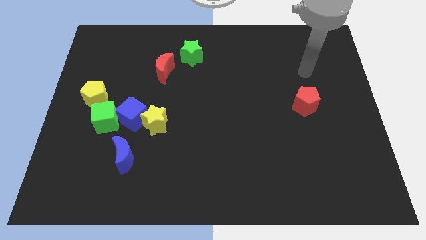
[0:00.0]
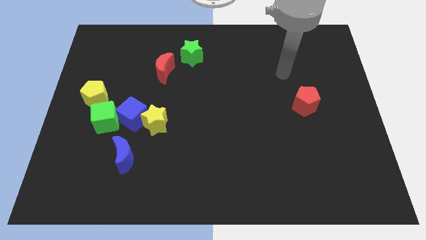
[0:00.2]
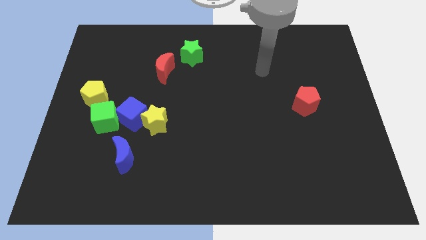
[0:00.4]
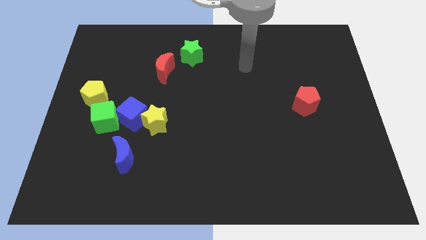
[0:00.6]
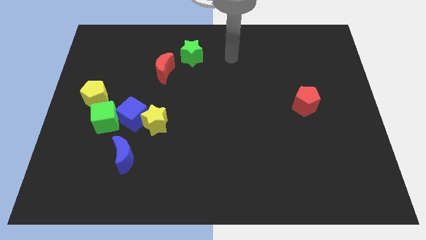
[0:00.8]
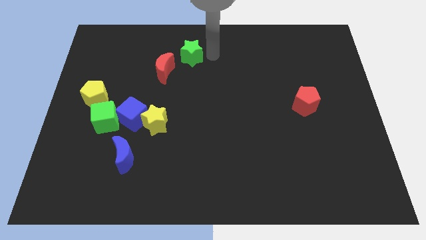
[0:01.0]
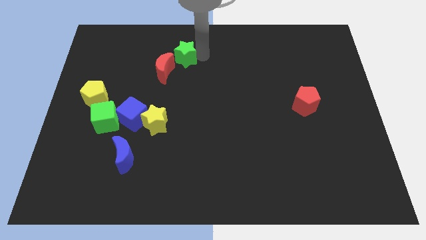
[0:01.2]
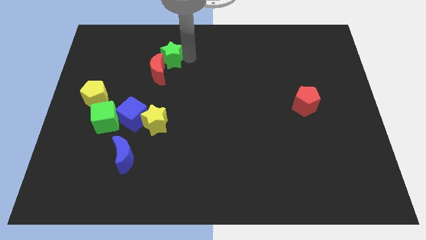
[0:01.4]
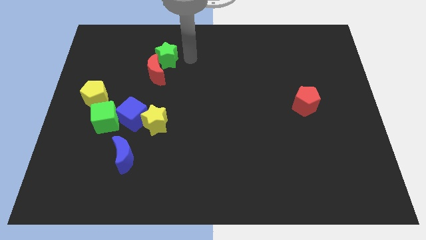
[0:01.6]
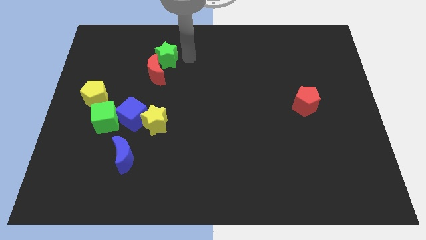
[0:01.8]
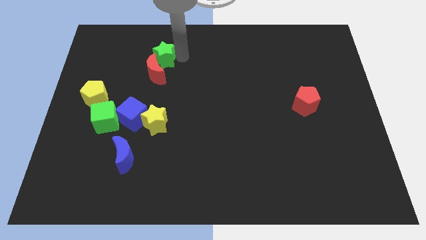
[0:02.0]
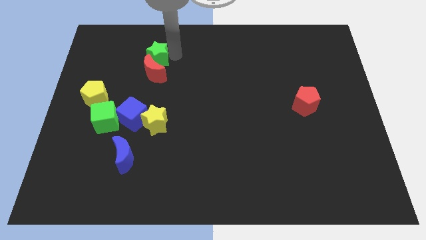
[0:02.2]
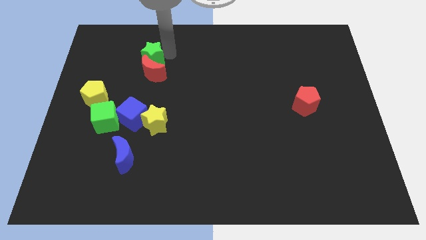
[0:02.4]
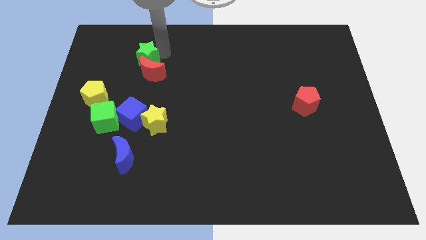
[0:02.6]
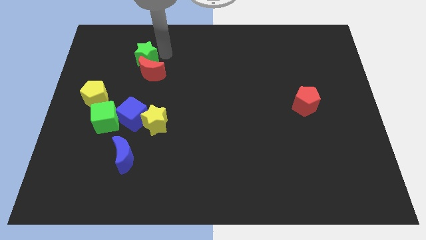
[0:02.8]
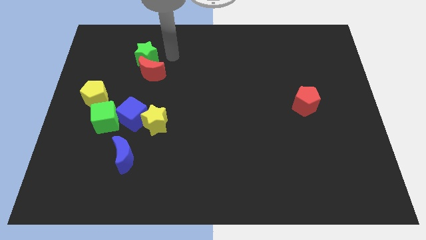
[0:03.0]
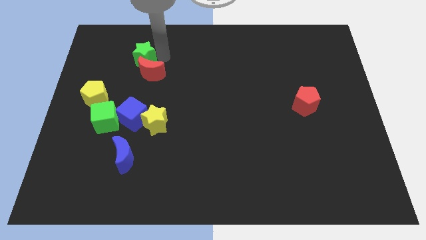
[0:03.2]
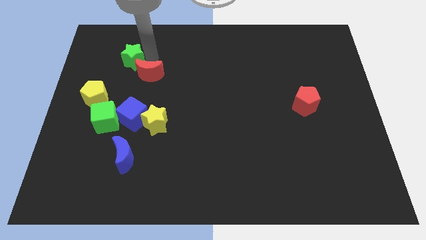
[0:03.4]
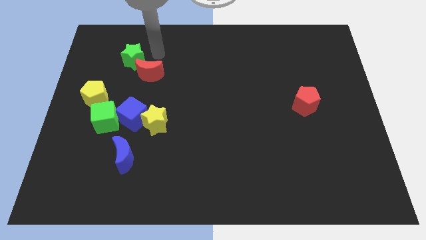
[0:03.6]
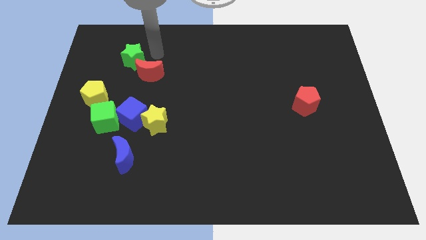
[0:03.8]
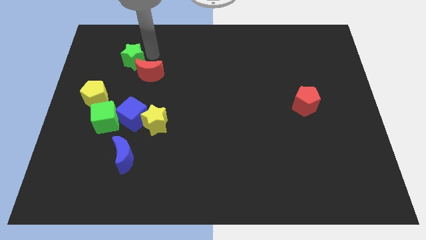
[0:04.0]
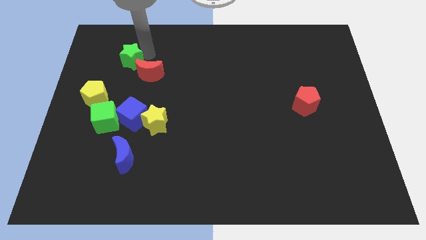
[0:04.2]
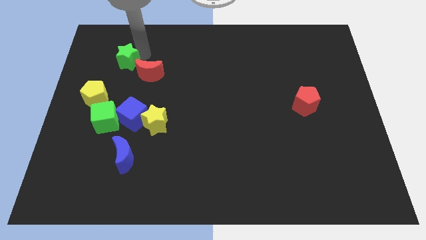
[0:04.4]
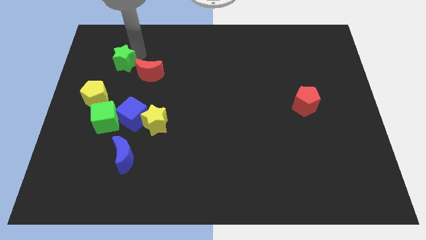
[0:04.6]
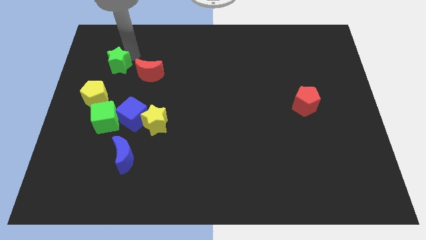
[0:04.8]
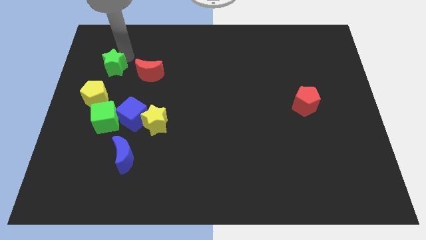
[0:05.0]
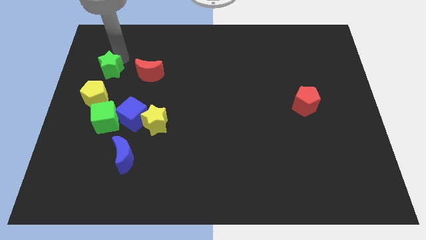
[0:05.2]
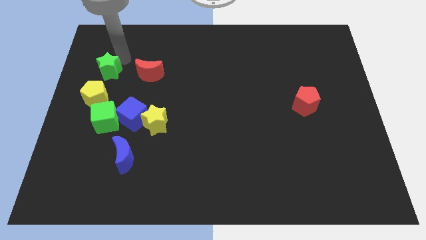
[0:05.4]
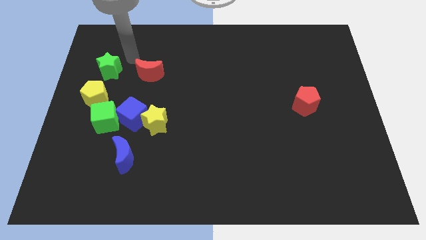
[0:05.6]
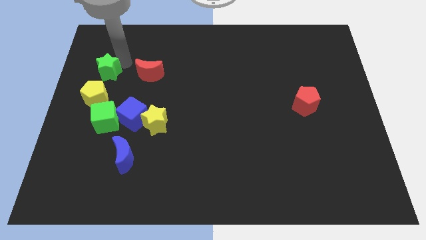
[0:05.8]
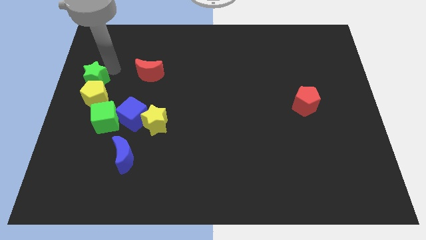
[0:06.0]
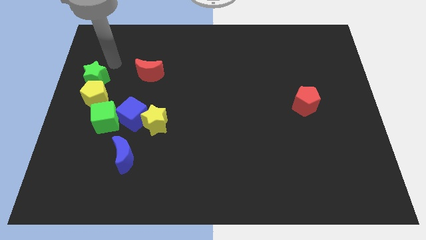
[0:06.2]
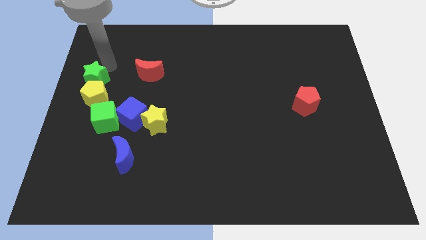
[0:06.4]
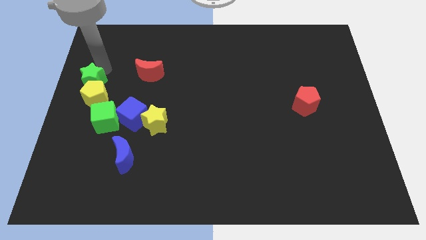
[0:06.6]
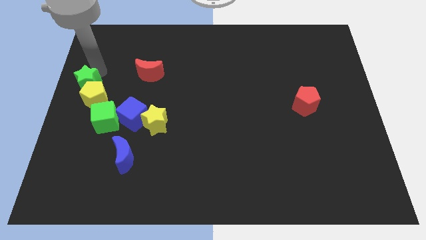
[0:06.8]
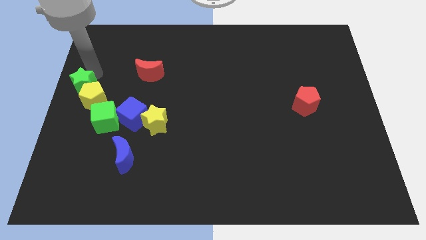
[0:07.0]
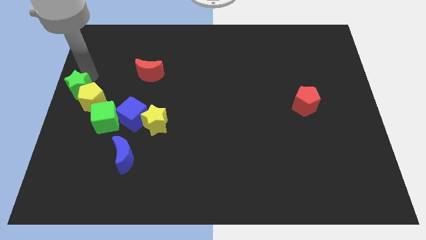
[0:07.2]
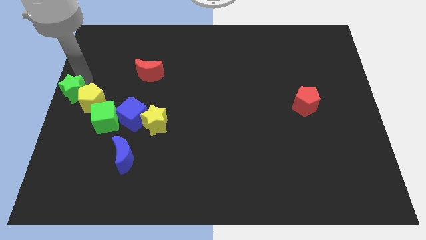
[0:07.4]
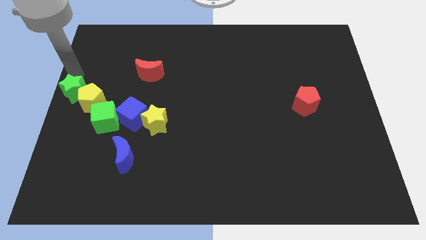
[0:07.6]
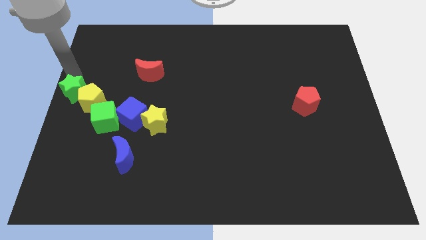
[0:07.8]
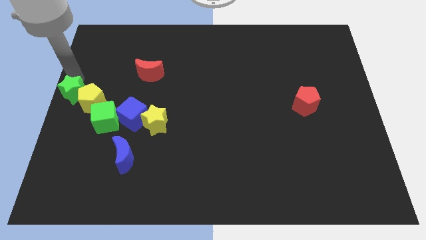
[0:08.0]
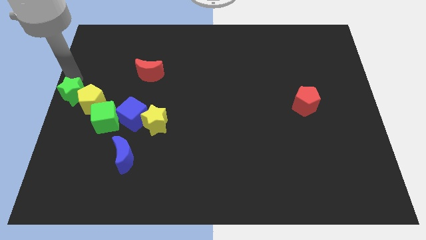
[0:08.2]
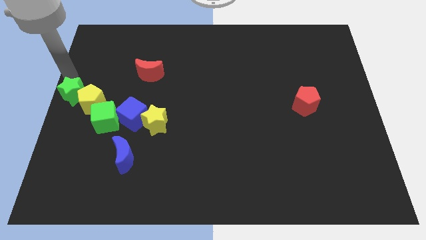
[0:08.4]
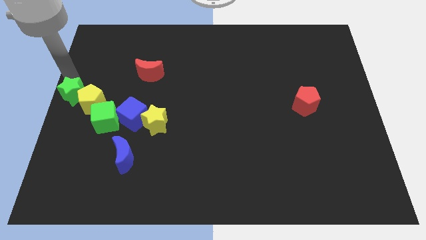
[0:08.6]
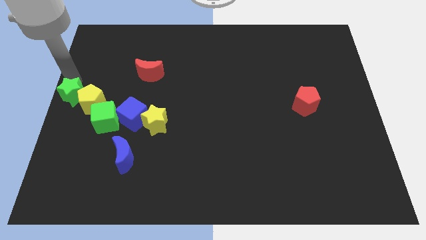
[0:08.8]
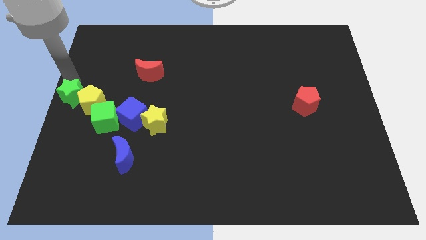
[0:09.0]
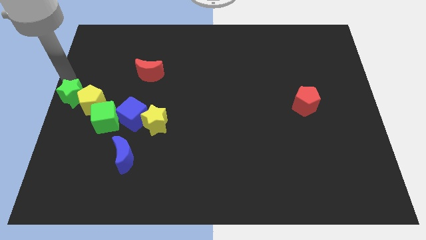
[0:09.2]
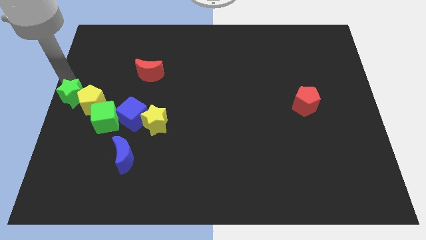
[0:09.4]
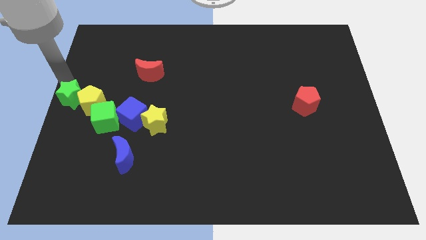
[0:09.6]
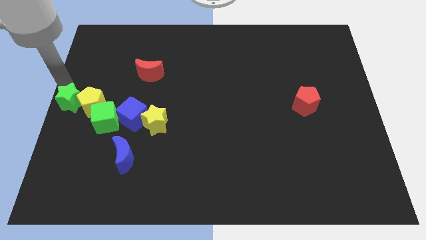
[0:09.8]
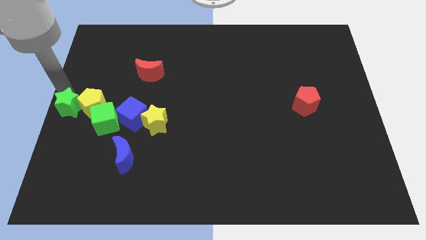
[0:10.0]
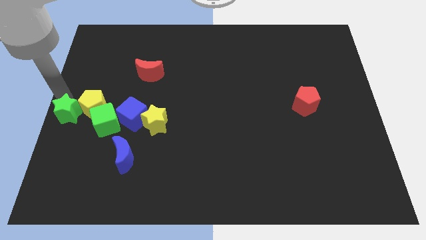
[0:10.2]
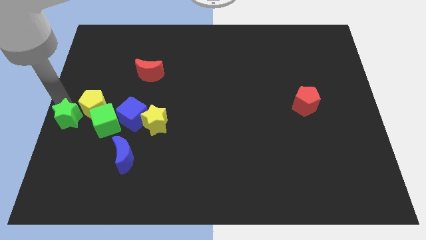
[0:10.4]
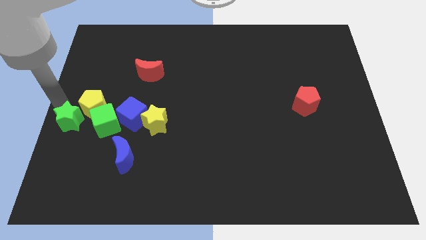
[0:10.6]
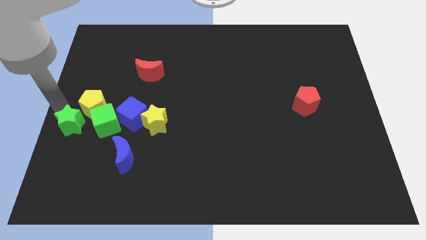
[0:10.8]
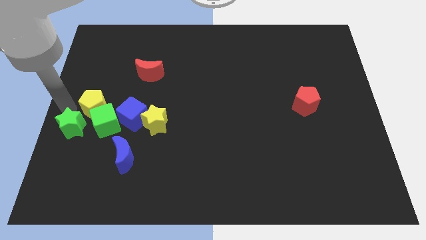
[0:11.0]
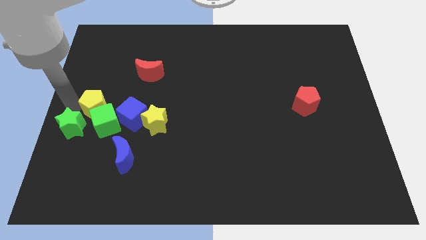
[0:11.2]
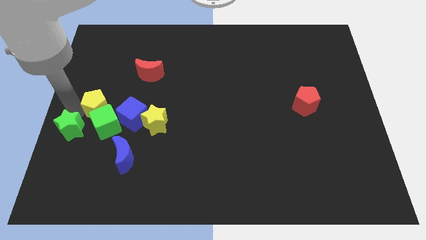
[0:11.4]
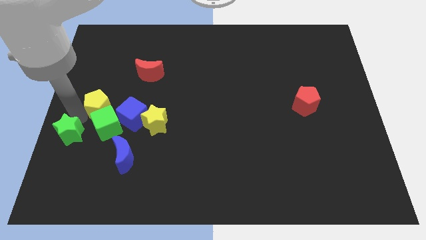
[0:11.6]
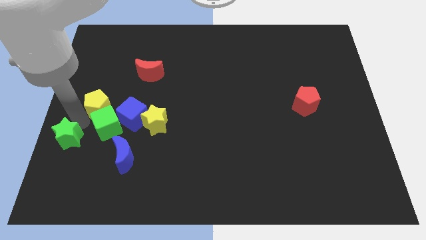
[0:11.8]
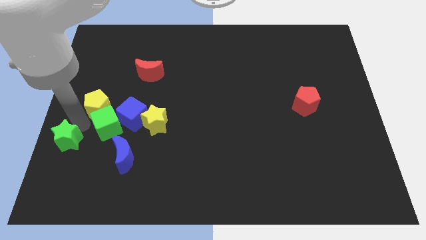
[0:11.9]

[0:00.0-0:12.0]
push the green star to the left side of the blue moon
